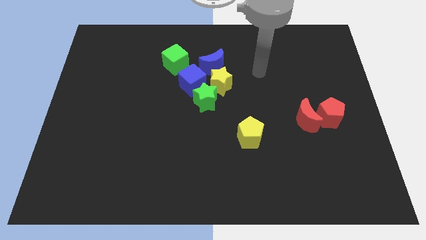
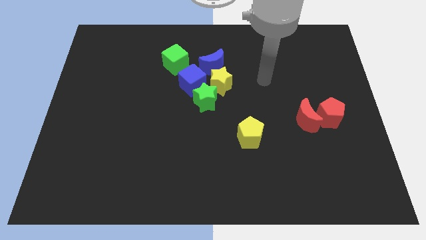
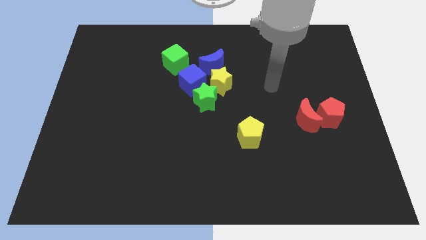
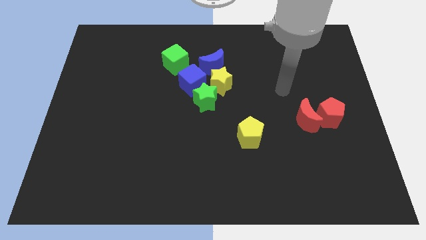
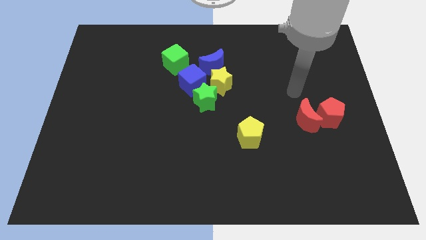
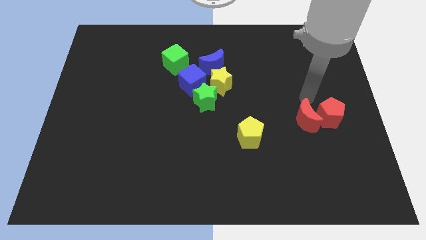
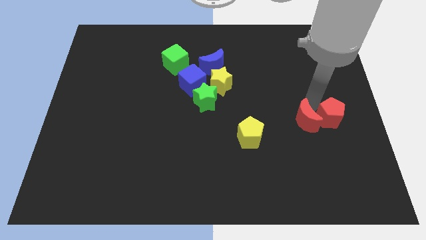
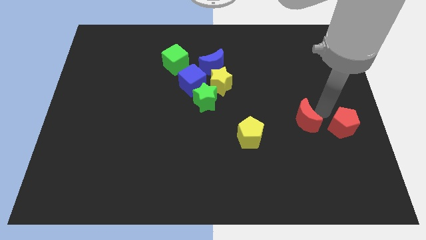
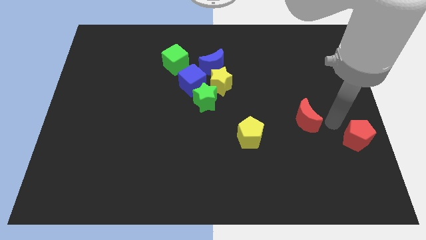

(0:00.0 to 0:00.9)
move the red moon away from the red pentagon

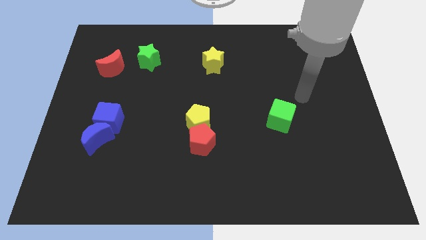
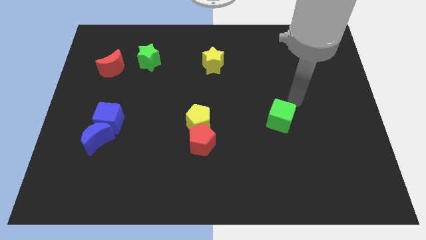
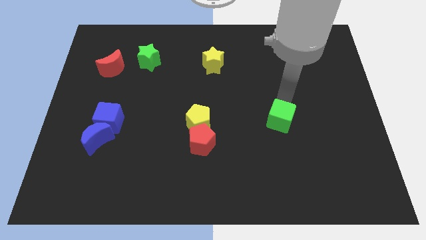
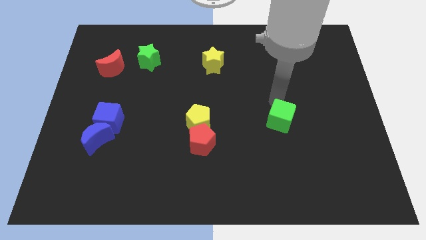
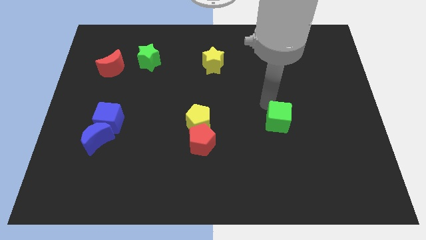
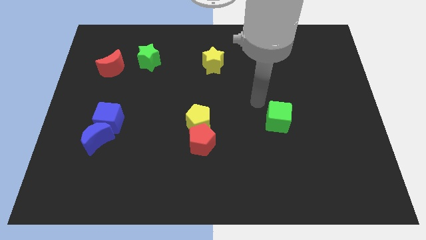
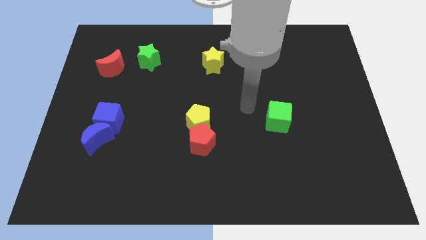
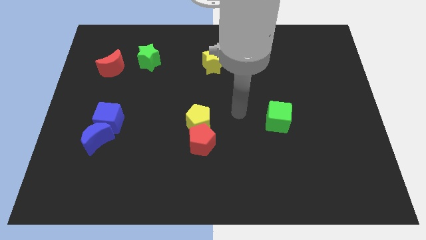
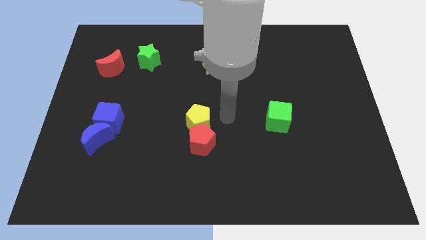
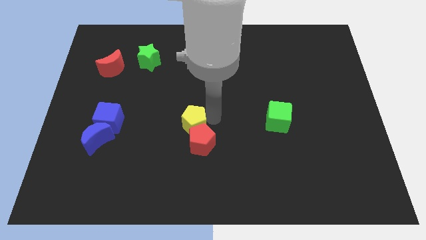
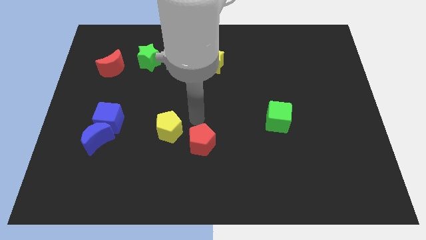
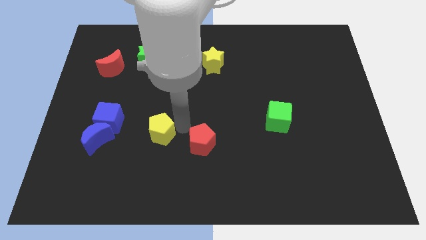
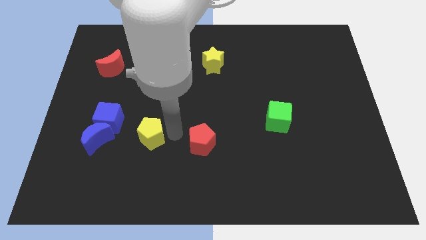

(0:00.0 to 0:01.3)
separate the red pentagon from the yellow pentagon

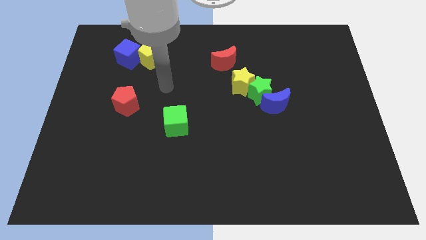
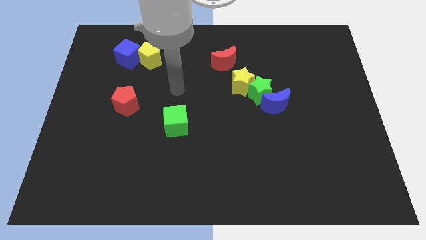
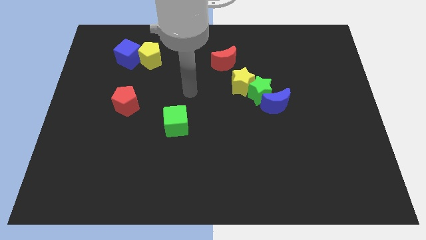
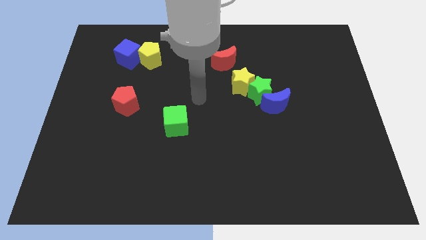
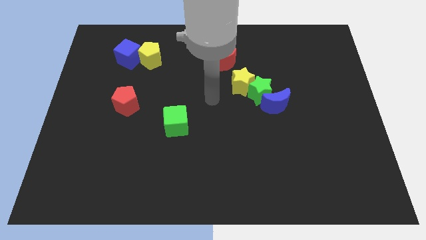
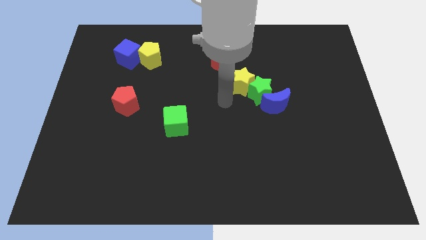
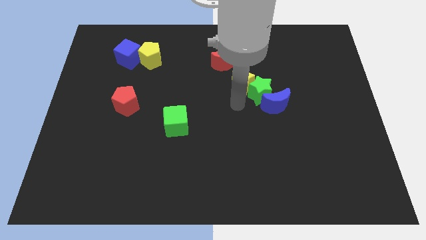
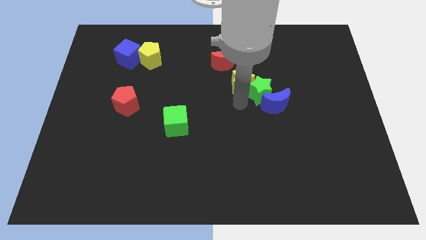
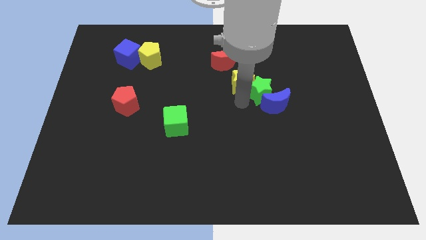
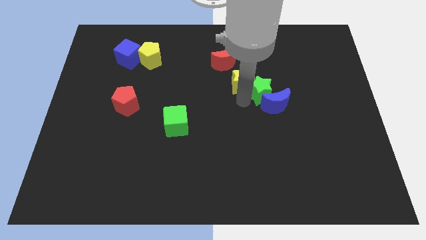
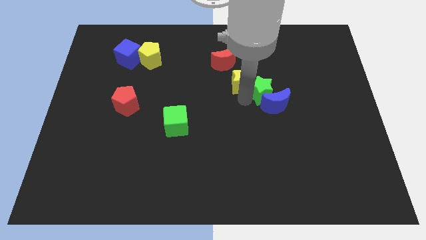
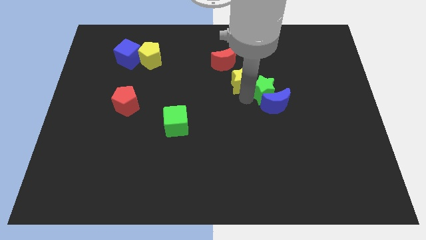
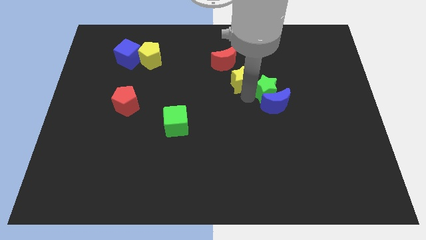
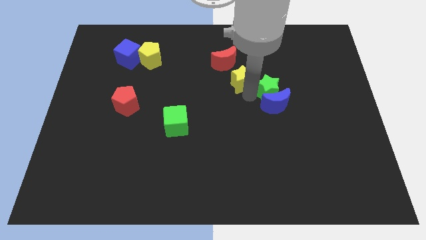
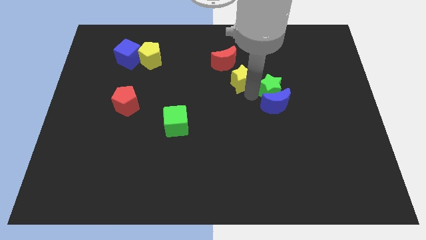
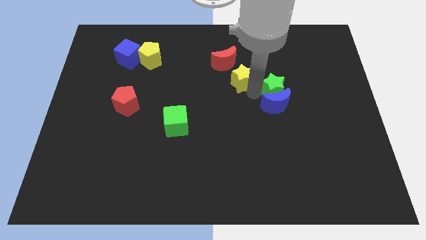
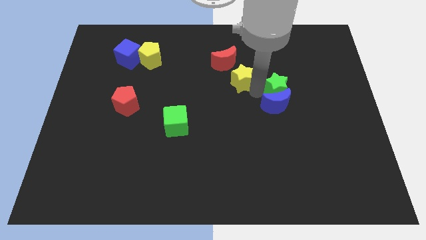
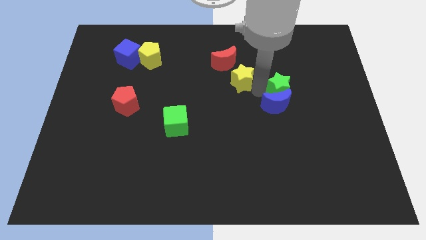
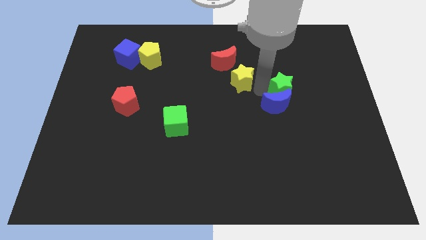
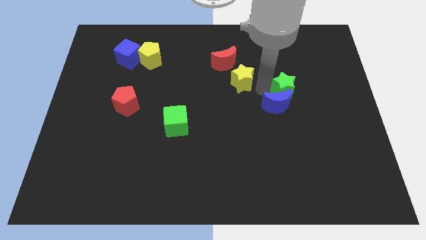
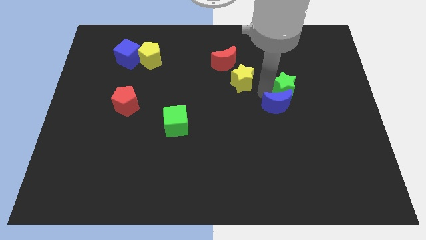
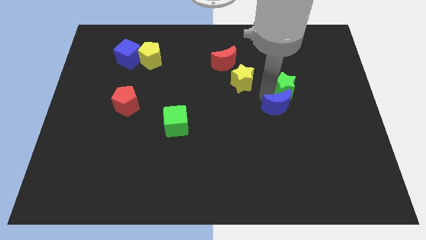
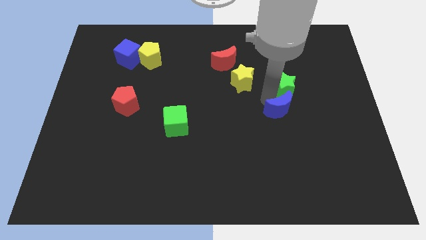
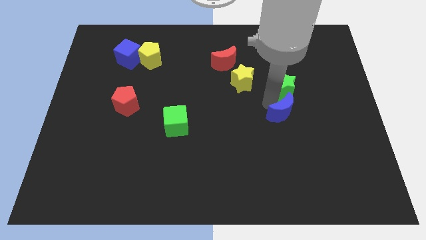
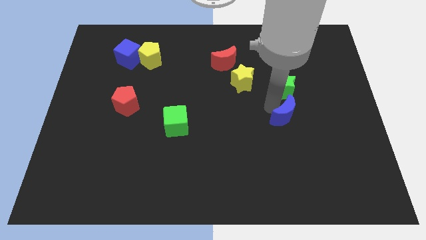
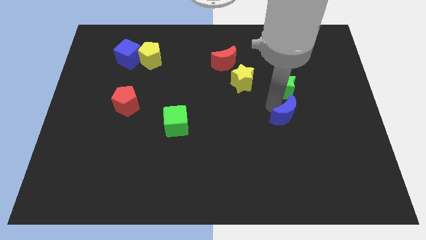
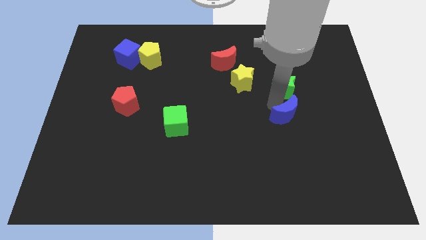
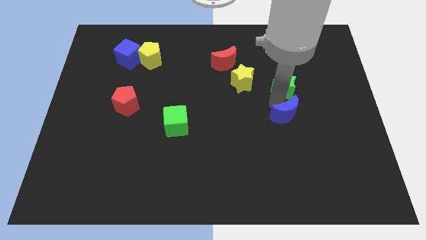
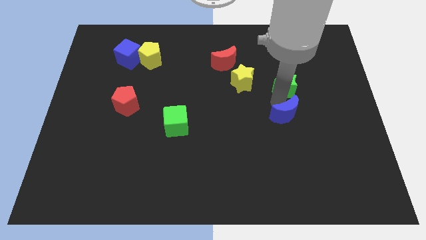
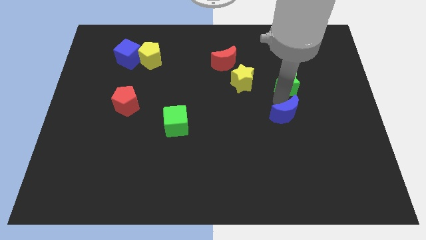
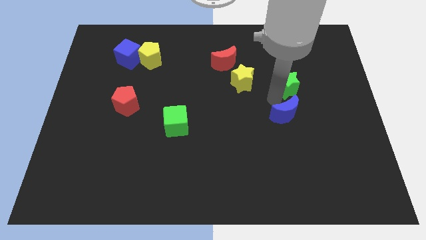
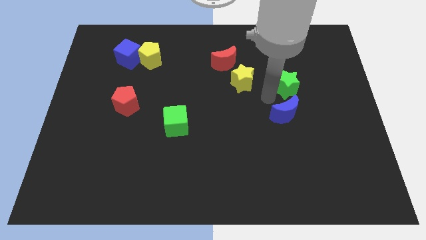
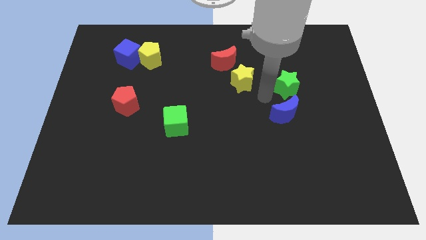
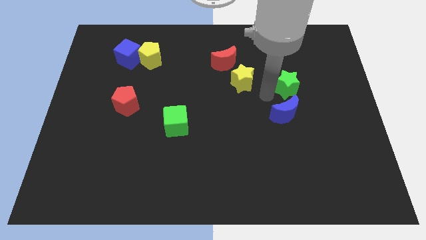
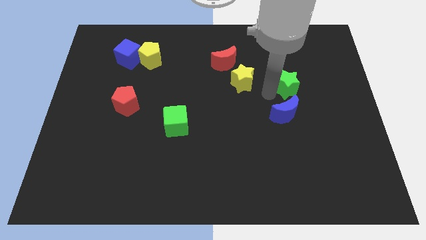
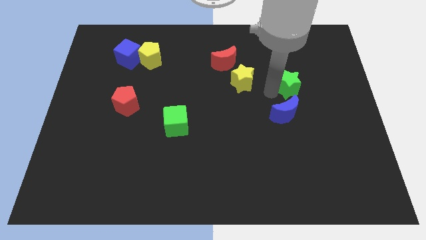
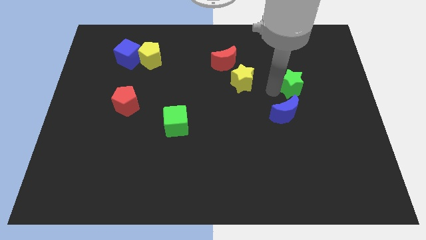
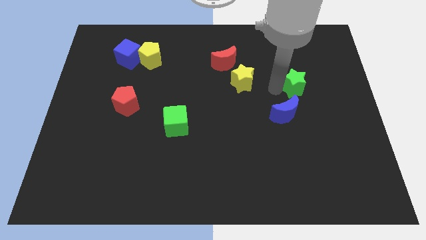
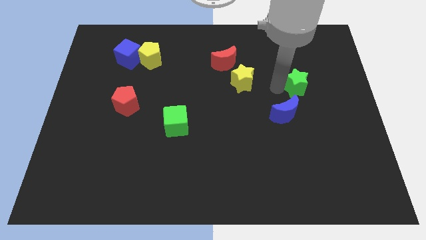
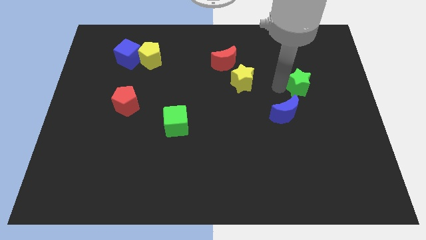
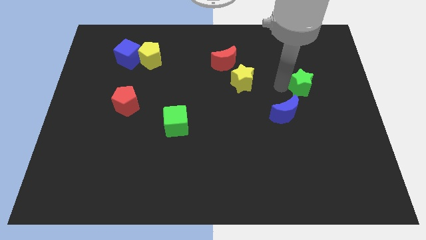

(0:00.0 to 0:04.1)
pull the green star apart from the blue moon and yellow star

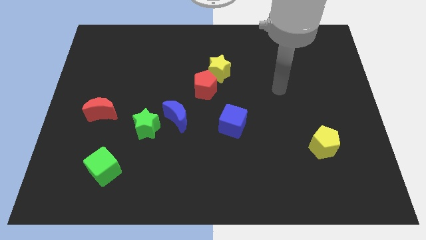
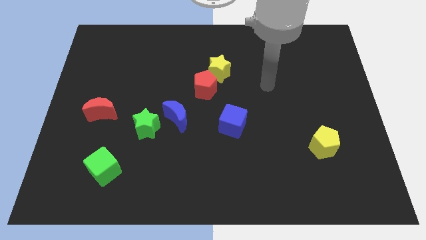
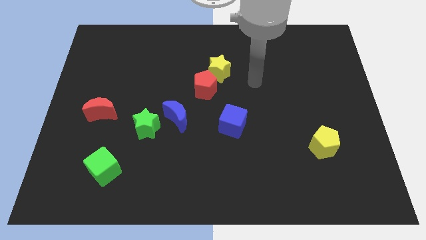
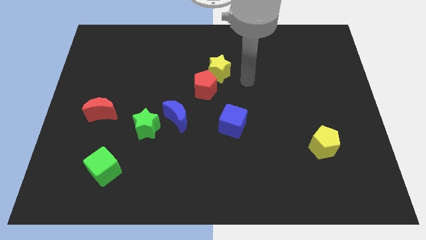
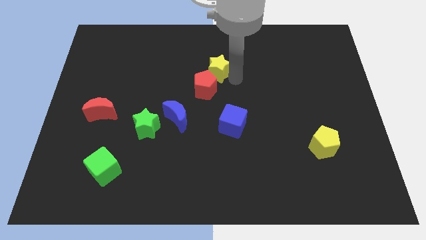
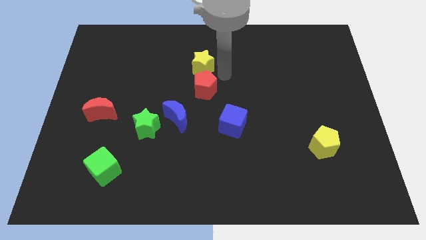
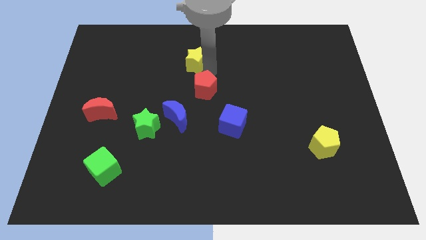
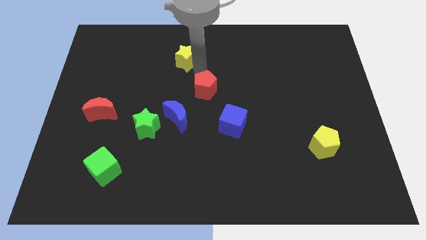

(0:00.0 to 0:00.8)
move the red pentagon away from the yellow star

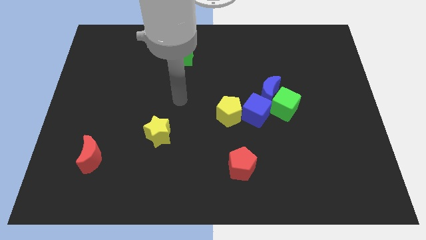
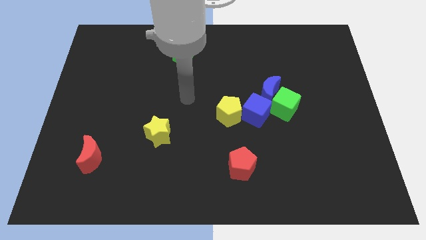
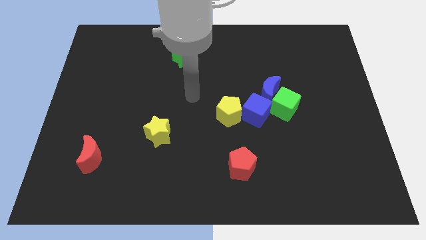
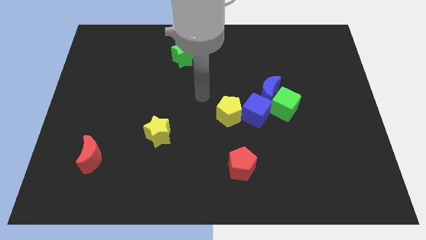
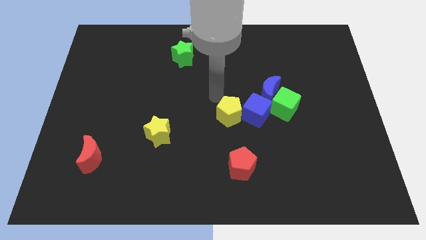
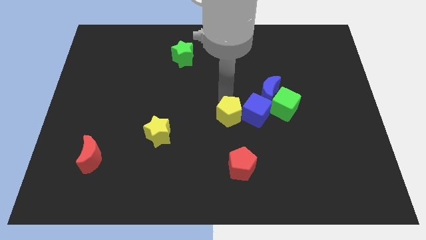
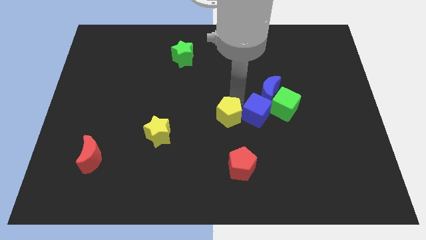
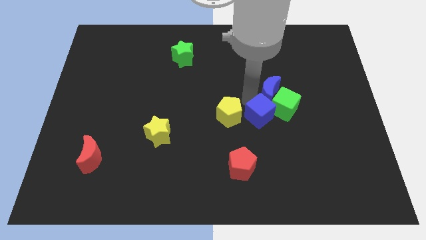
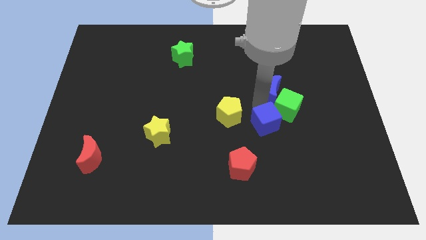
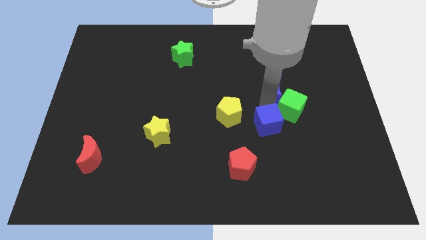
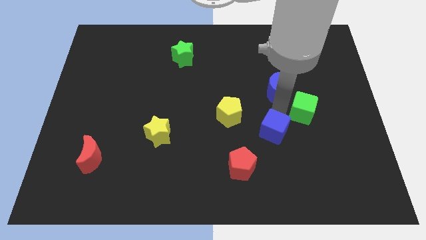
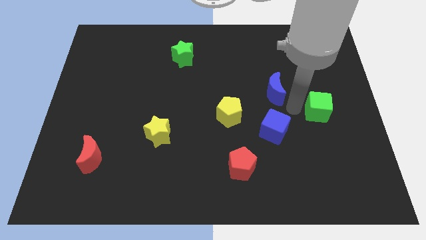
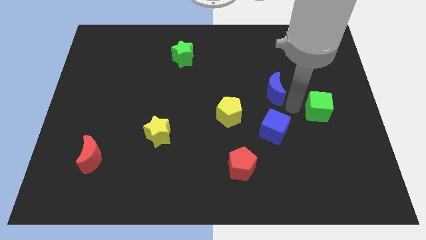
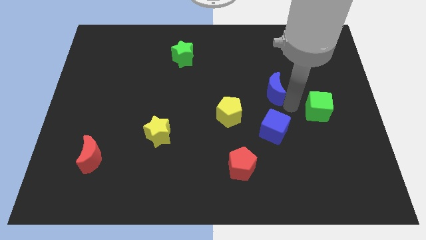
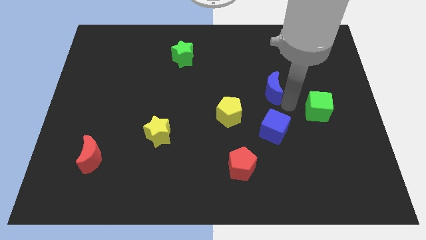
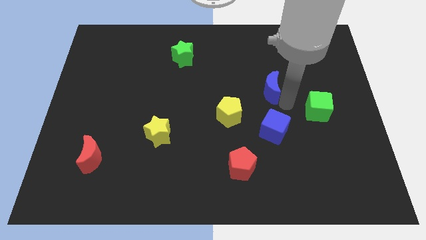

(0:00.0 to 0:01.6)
move the blue moon away from the green cube and blue cube

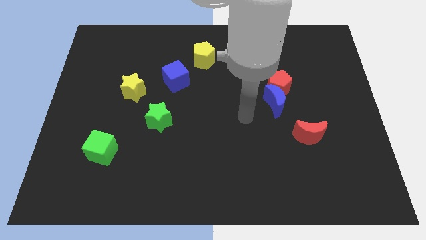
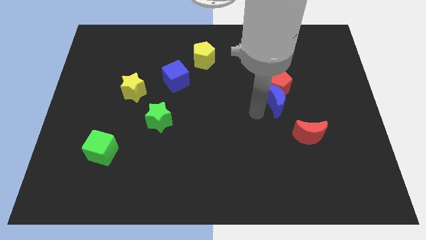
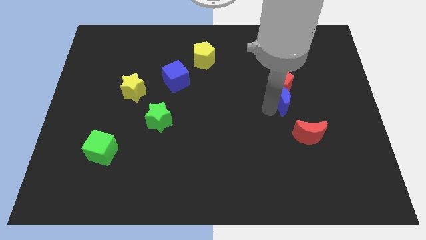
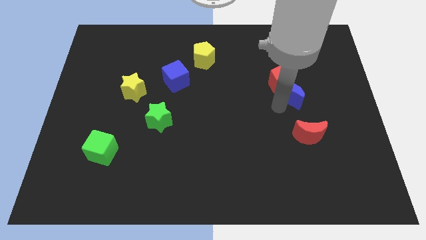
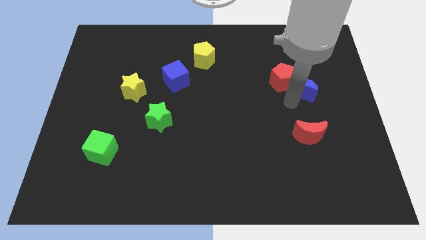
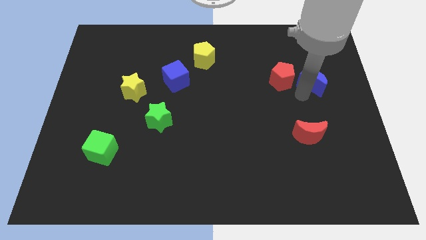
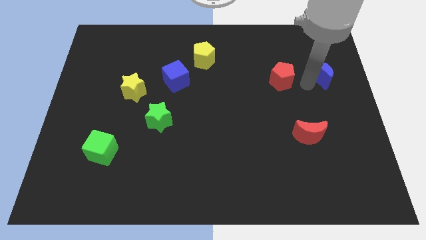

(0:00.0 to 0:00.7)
move the red pentagon away from the blue moon
